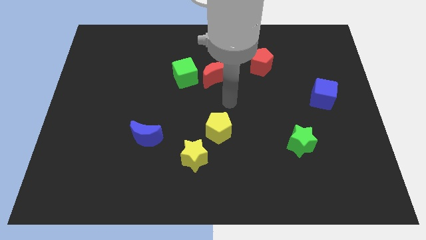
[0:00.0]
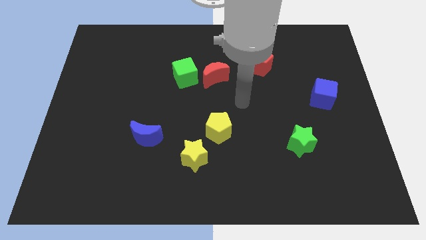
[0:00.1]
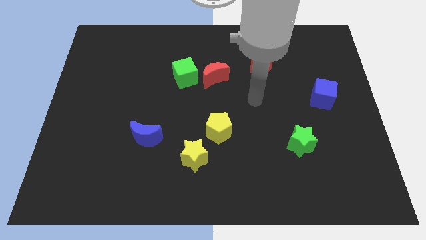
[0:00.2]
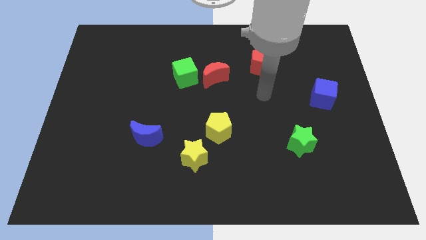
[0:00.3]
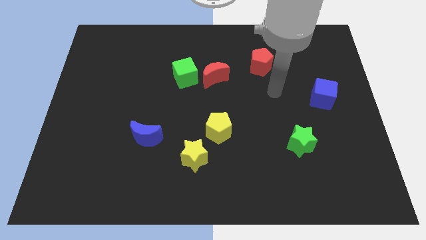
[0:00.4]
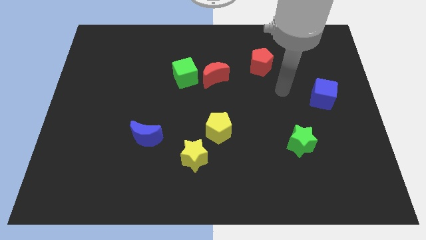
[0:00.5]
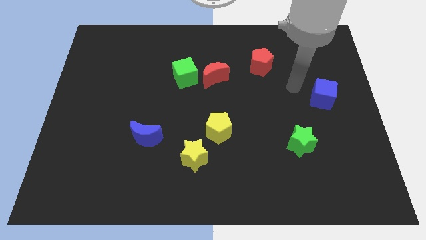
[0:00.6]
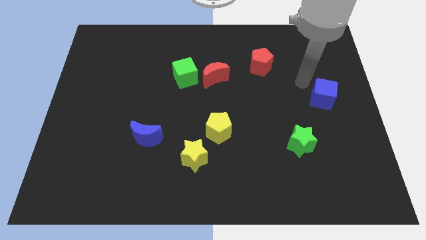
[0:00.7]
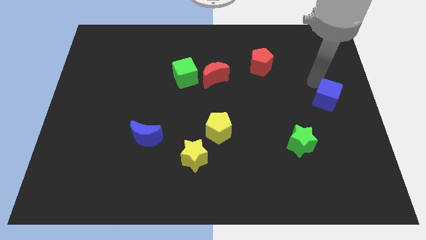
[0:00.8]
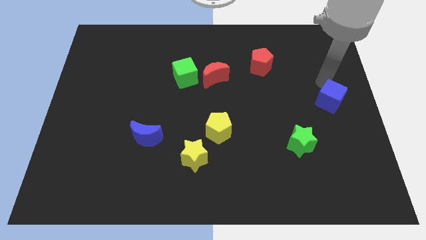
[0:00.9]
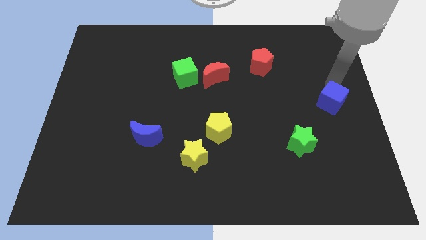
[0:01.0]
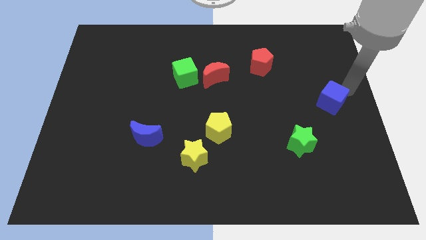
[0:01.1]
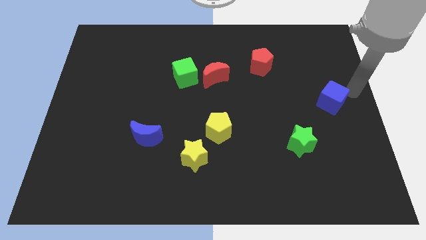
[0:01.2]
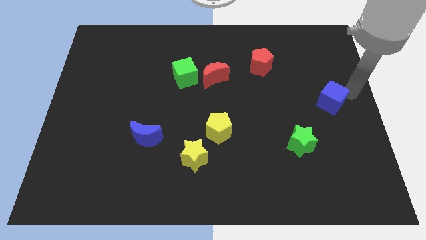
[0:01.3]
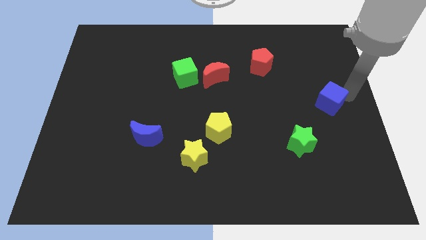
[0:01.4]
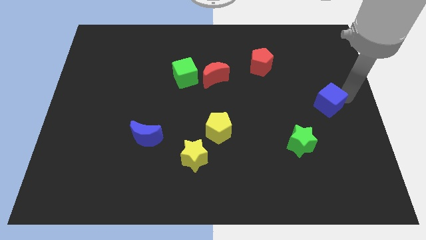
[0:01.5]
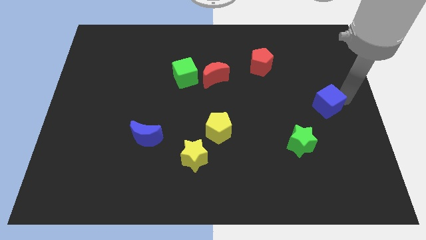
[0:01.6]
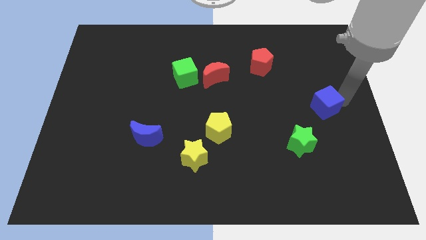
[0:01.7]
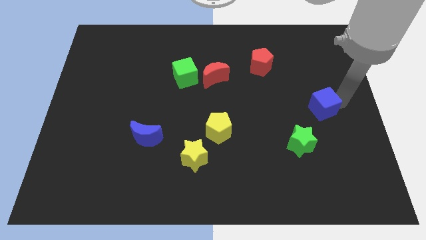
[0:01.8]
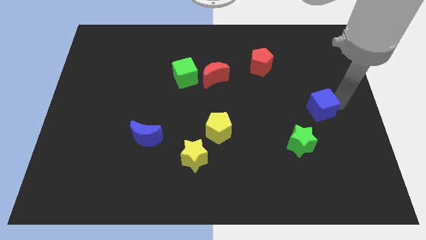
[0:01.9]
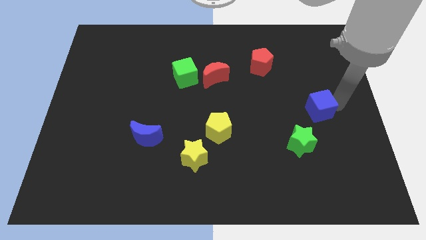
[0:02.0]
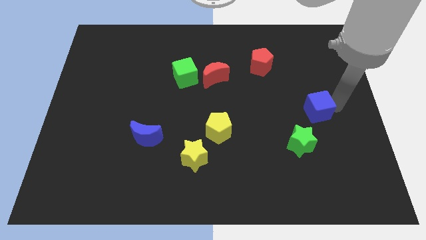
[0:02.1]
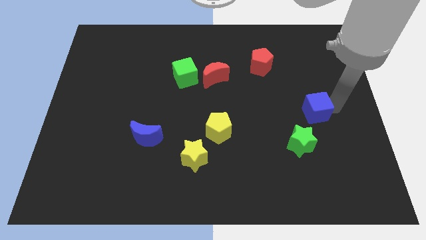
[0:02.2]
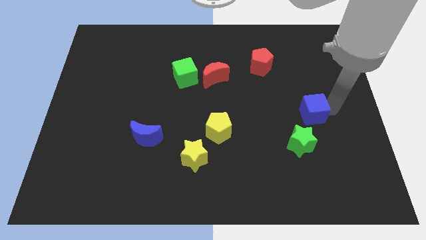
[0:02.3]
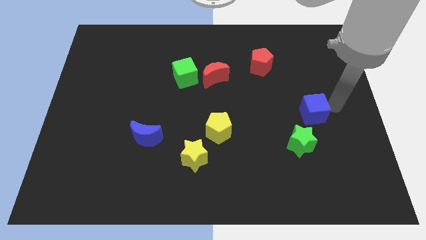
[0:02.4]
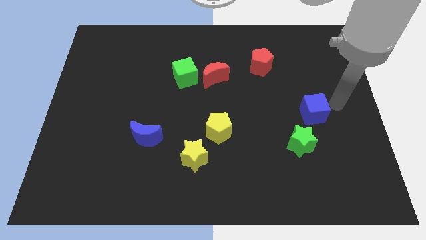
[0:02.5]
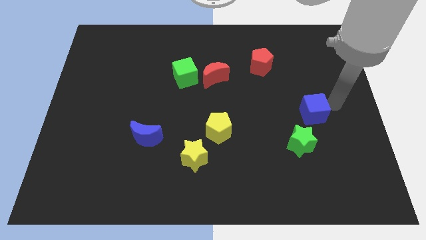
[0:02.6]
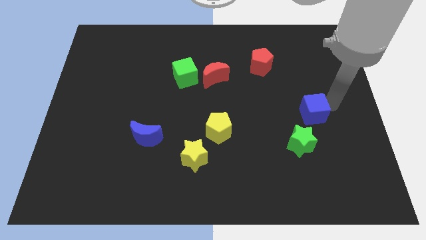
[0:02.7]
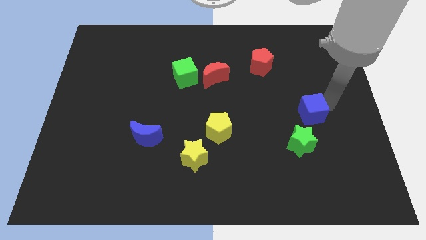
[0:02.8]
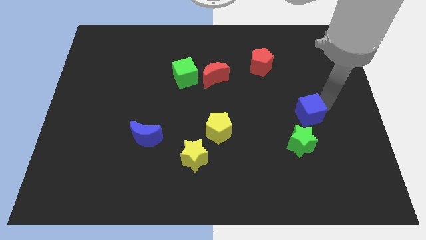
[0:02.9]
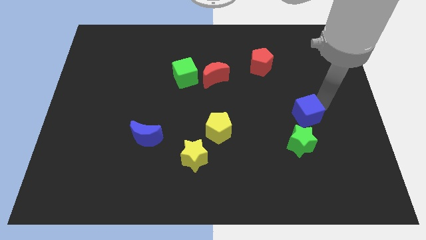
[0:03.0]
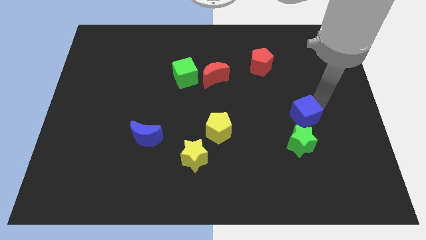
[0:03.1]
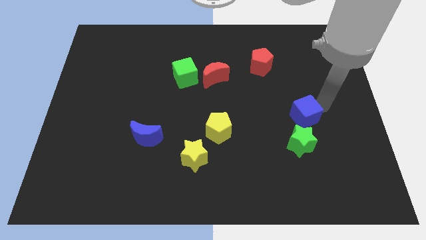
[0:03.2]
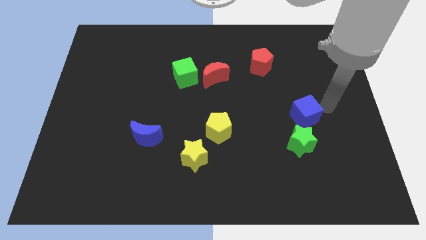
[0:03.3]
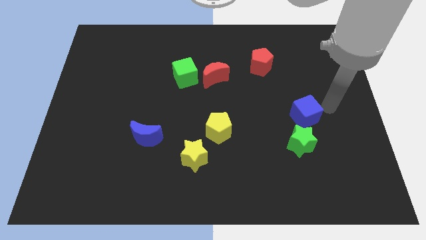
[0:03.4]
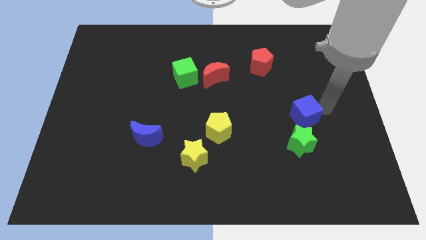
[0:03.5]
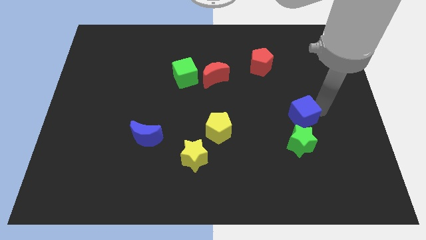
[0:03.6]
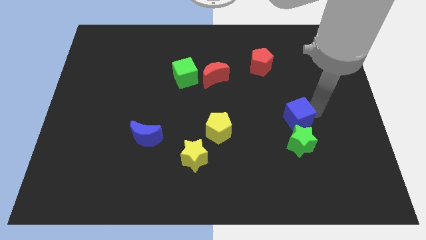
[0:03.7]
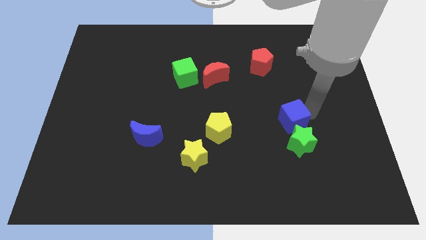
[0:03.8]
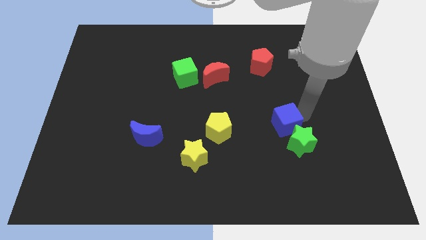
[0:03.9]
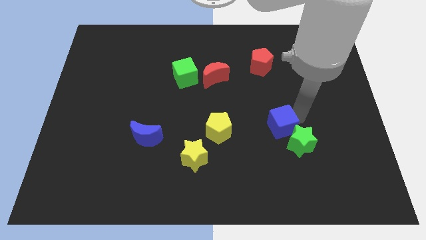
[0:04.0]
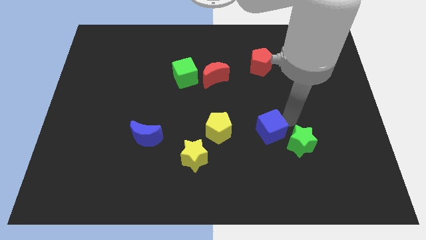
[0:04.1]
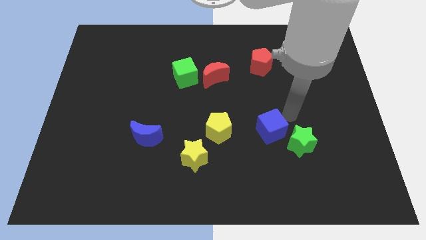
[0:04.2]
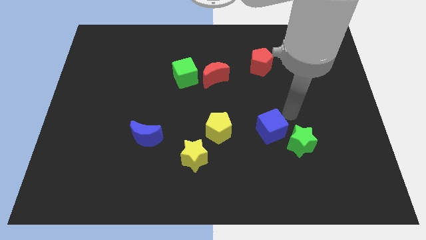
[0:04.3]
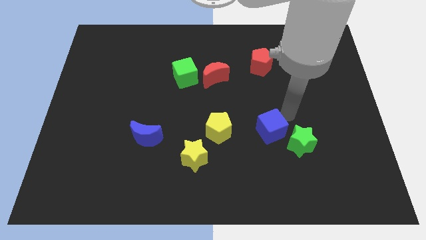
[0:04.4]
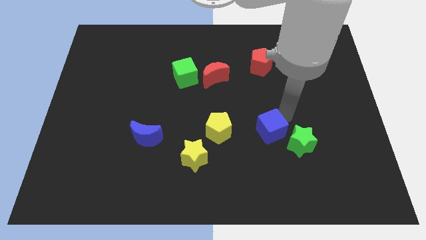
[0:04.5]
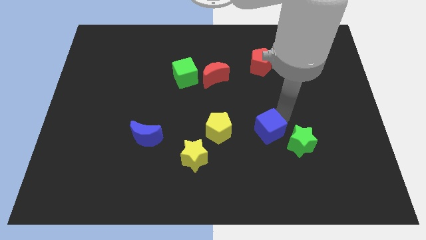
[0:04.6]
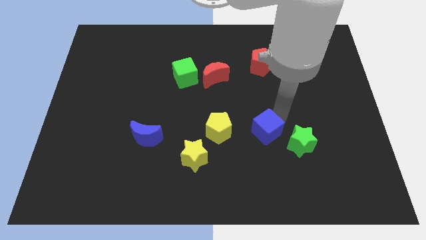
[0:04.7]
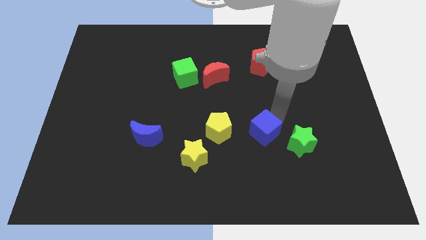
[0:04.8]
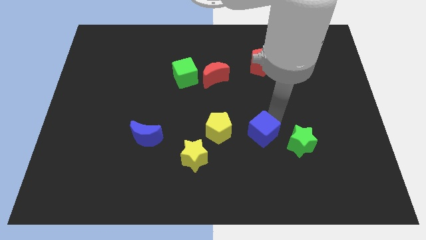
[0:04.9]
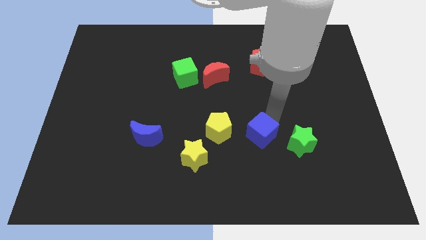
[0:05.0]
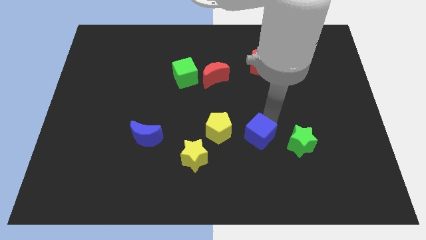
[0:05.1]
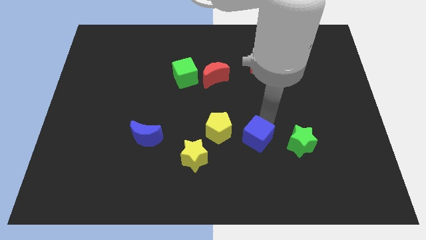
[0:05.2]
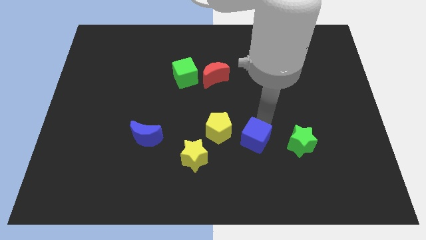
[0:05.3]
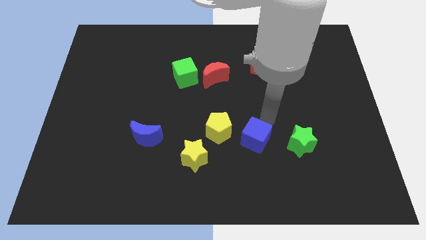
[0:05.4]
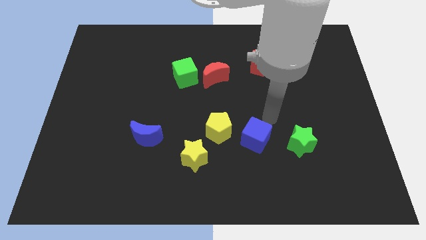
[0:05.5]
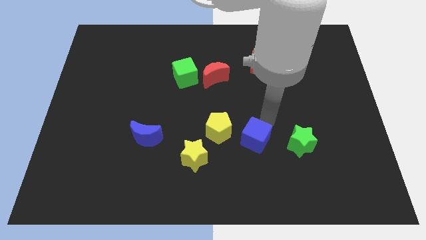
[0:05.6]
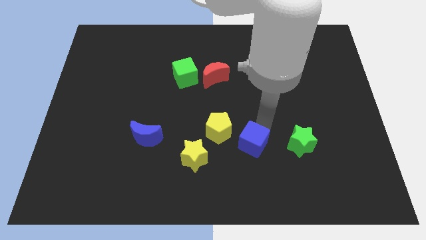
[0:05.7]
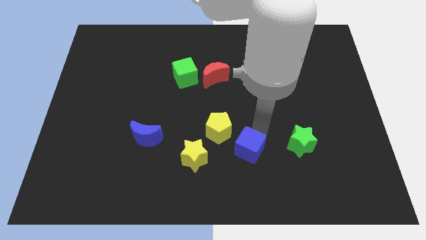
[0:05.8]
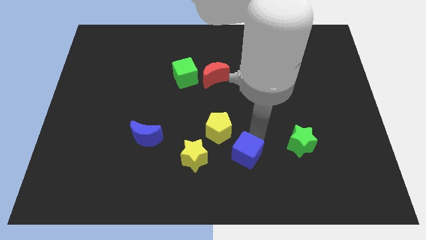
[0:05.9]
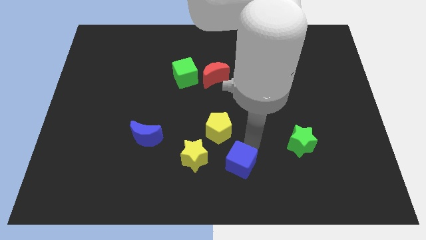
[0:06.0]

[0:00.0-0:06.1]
put the blue cube to the bottom
